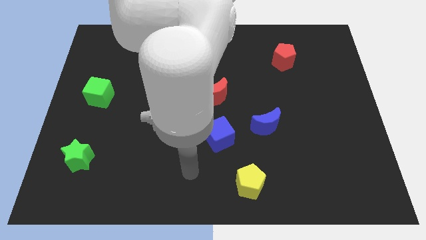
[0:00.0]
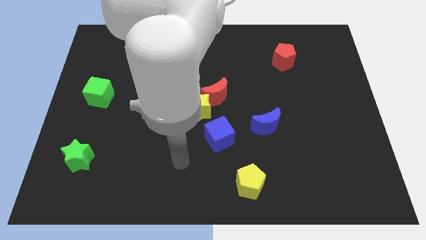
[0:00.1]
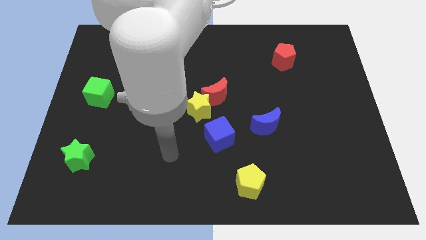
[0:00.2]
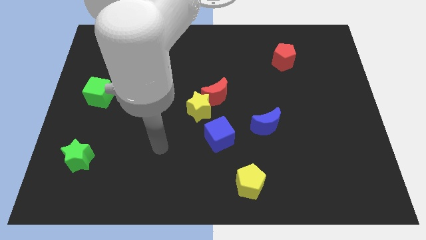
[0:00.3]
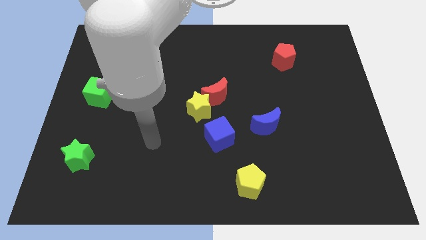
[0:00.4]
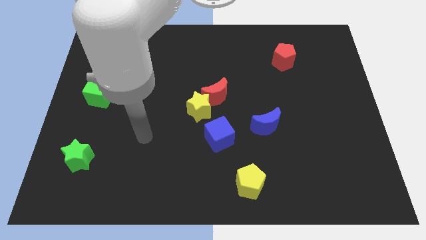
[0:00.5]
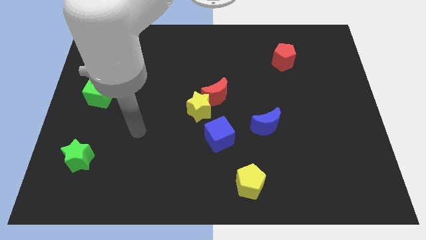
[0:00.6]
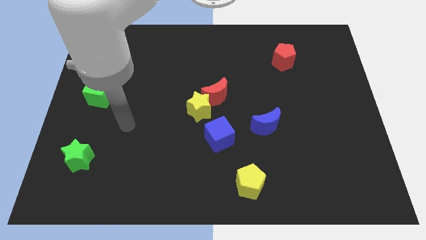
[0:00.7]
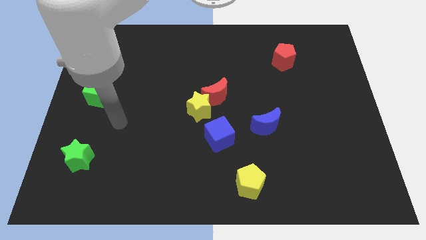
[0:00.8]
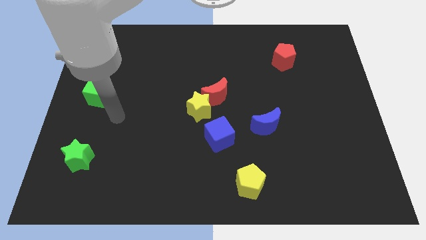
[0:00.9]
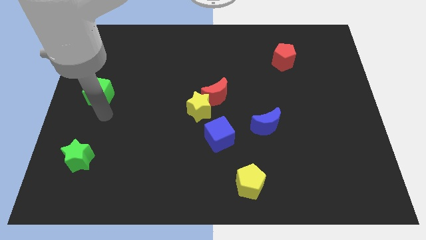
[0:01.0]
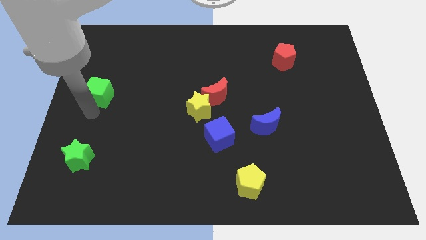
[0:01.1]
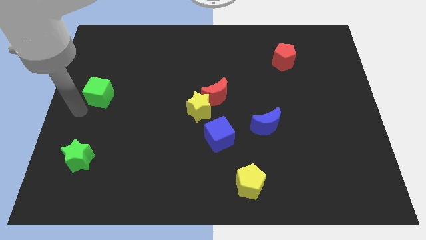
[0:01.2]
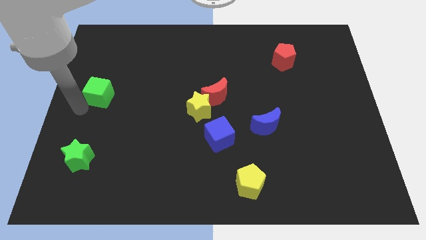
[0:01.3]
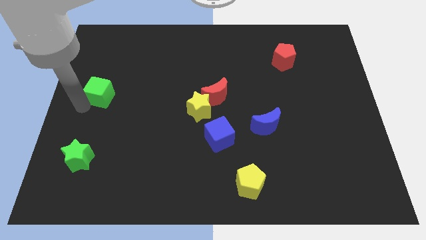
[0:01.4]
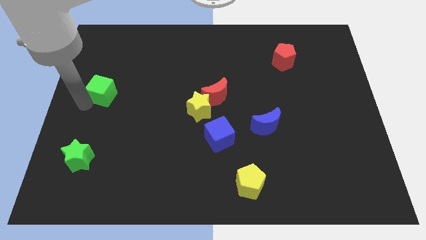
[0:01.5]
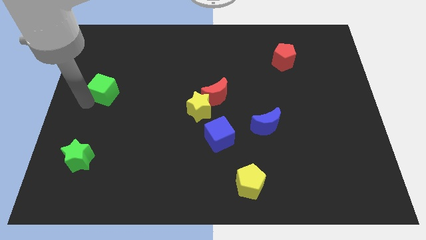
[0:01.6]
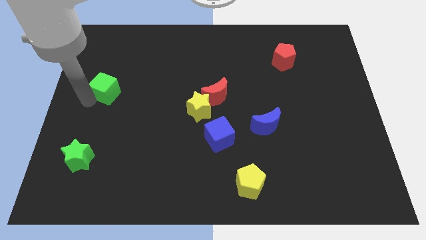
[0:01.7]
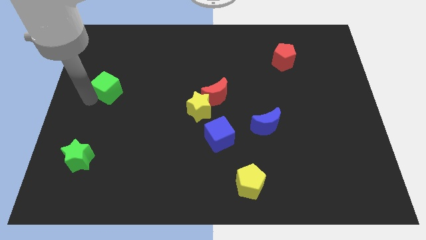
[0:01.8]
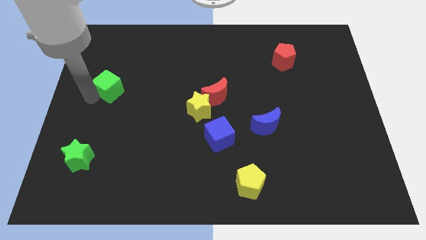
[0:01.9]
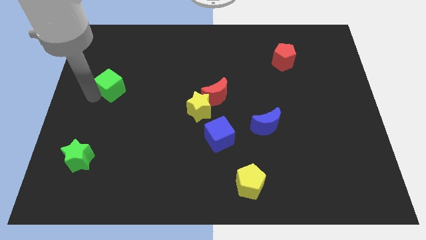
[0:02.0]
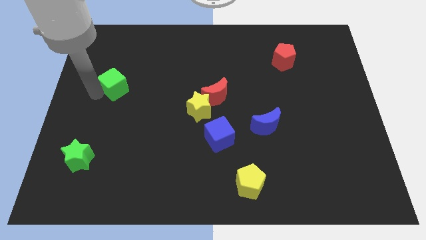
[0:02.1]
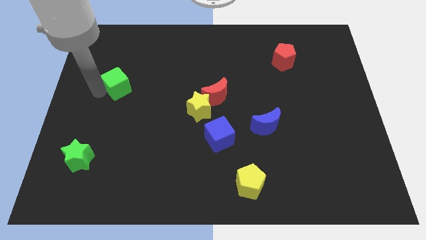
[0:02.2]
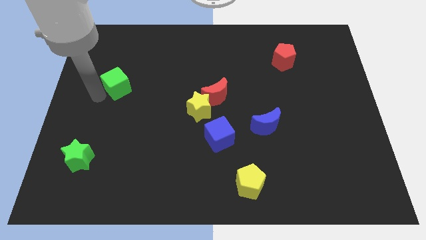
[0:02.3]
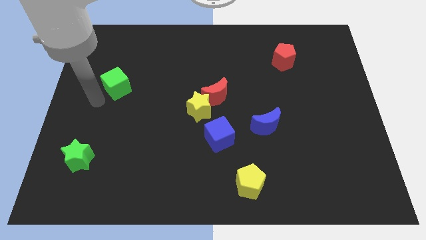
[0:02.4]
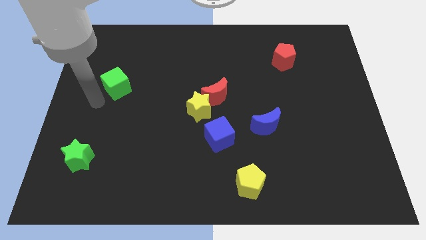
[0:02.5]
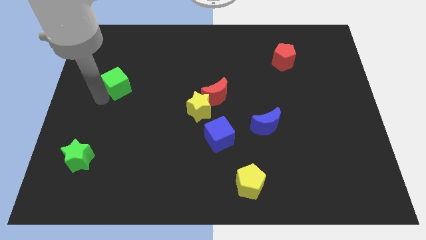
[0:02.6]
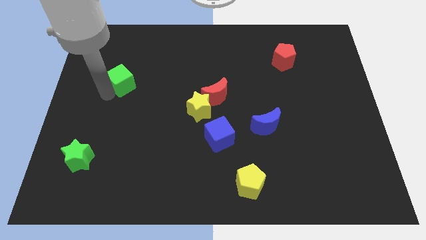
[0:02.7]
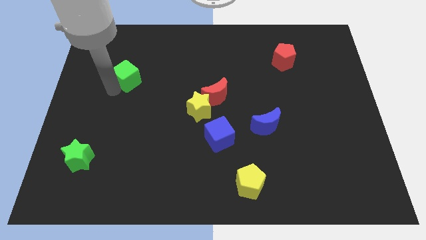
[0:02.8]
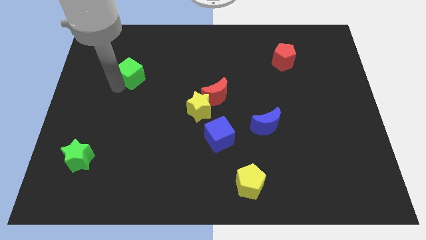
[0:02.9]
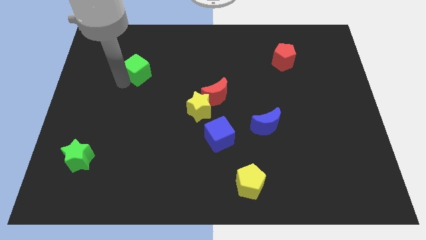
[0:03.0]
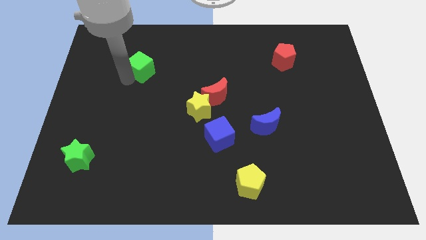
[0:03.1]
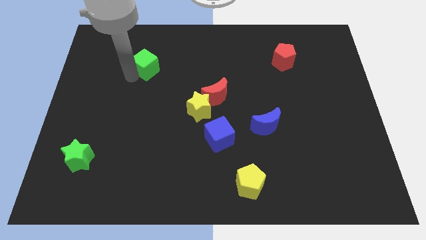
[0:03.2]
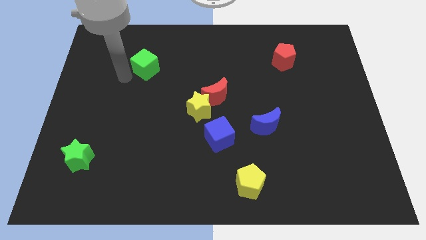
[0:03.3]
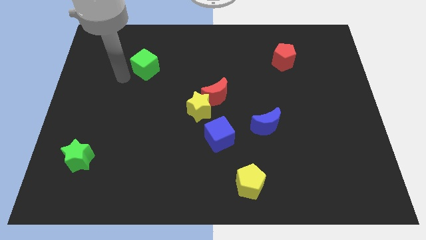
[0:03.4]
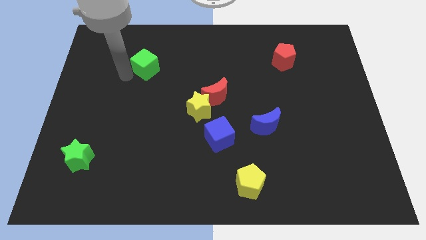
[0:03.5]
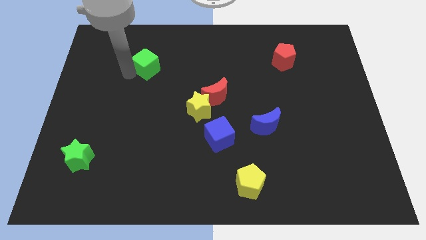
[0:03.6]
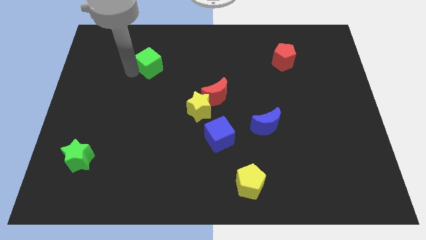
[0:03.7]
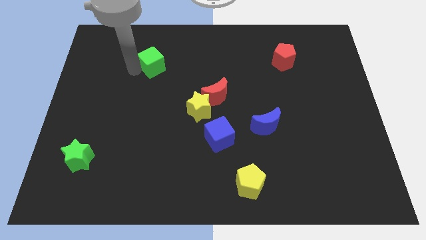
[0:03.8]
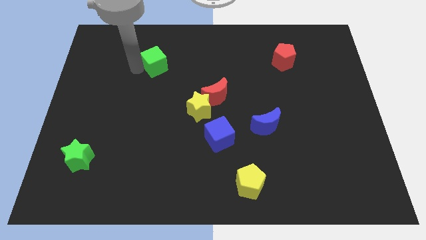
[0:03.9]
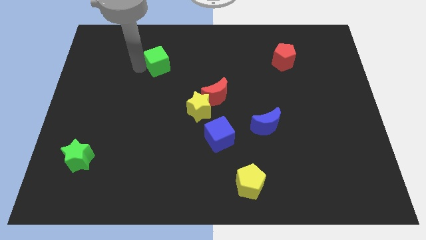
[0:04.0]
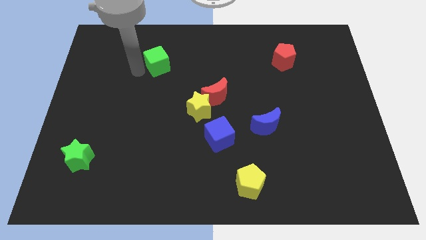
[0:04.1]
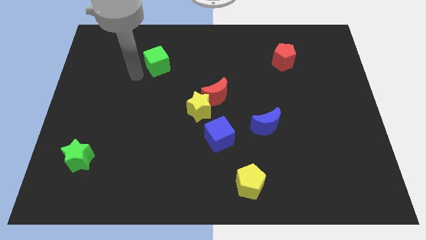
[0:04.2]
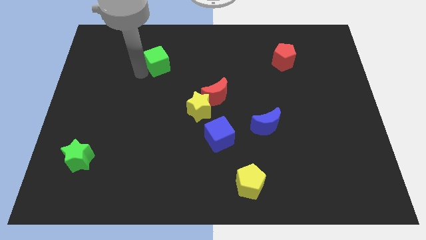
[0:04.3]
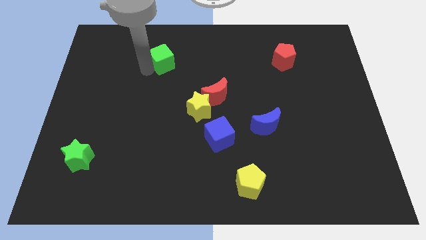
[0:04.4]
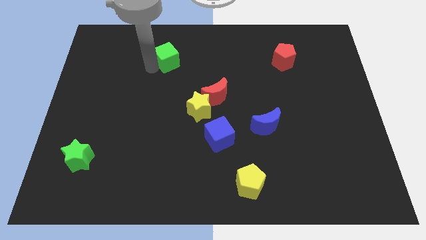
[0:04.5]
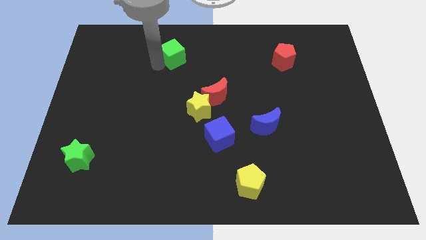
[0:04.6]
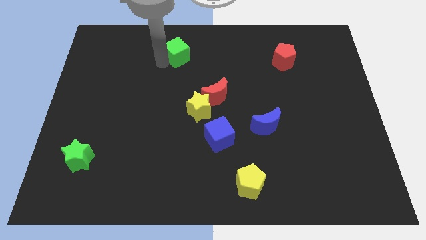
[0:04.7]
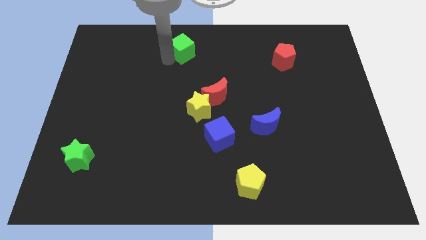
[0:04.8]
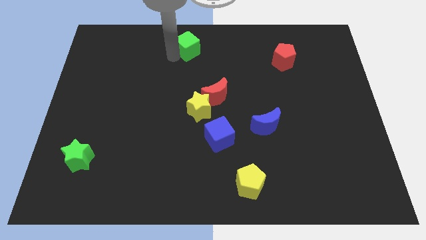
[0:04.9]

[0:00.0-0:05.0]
put the green cube to the top side

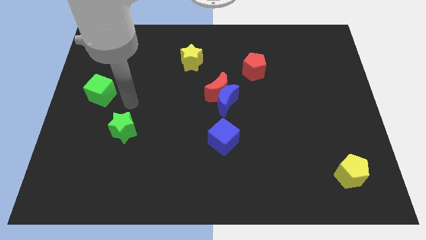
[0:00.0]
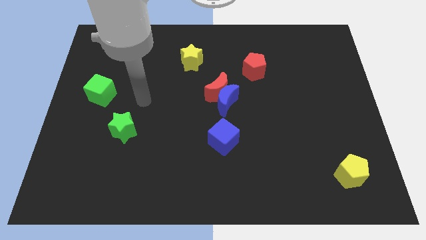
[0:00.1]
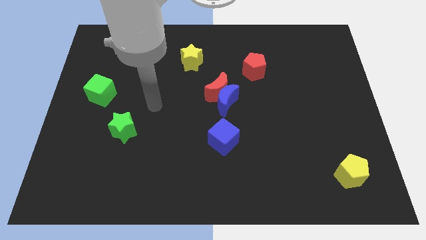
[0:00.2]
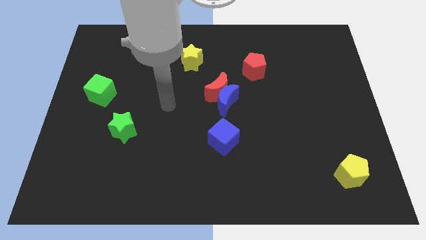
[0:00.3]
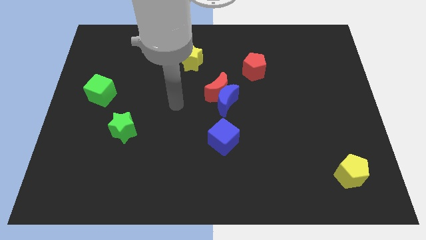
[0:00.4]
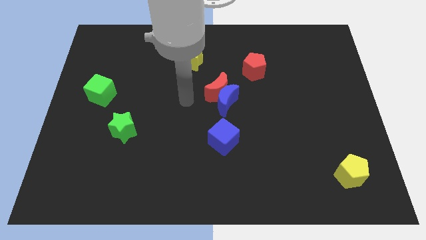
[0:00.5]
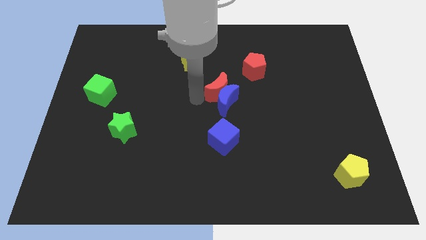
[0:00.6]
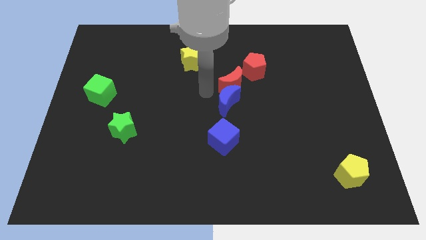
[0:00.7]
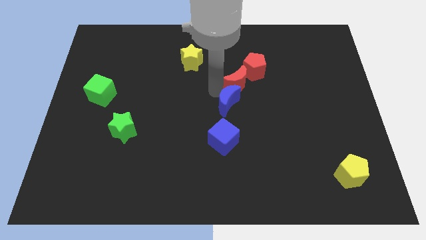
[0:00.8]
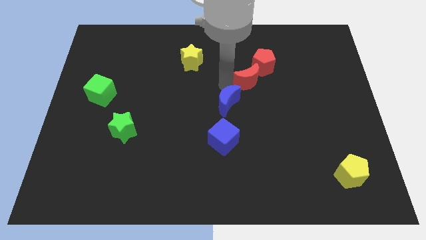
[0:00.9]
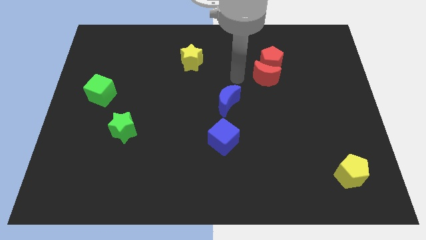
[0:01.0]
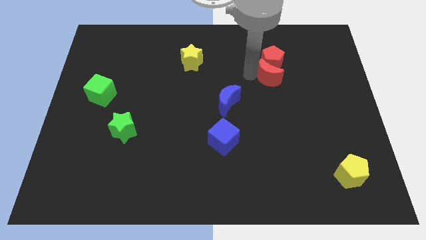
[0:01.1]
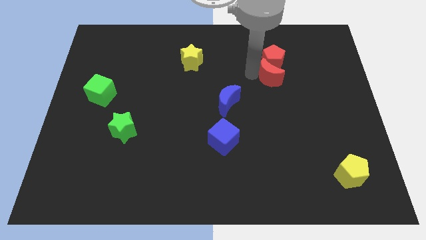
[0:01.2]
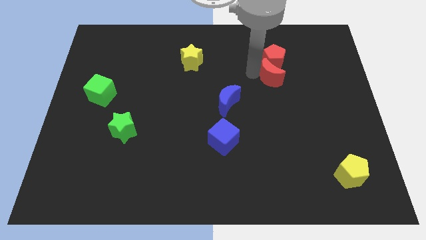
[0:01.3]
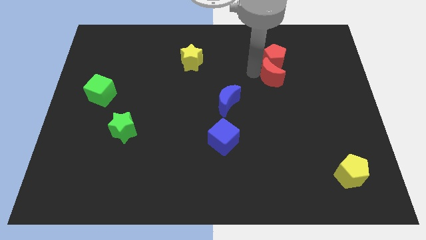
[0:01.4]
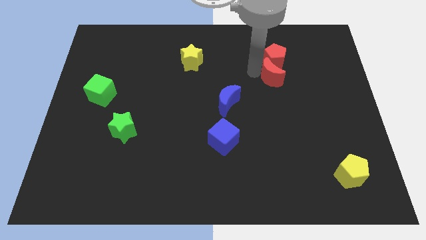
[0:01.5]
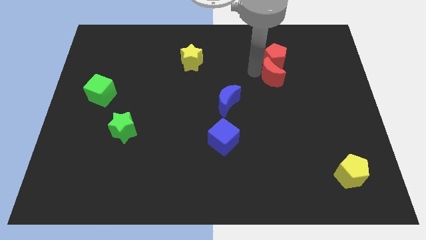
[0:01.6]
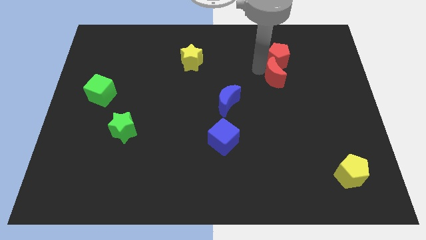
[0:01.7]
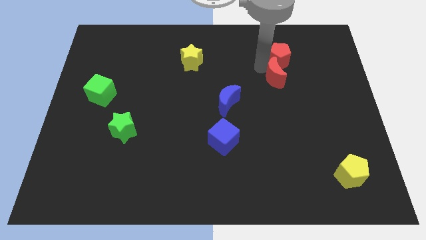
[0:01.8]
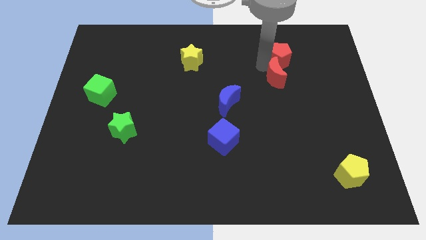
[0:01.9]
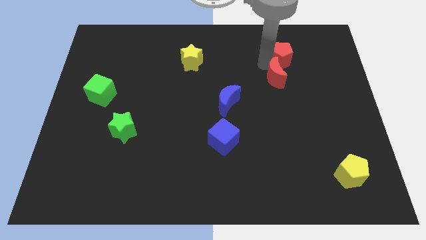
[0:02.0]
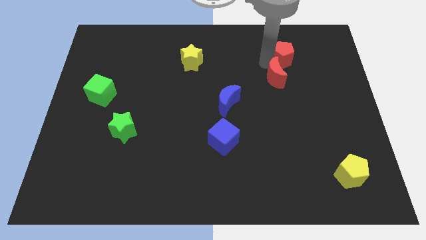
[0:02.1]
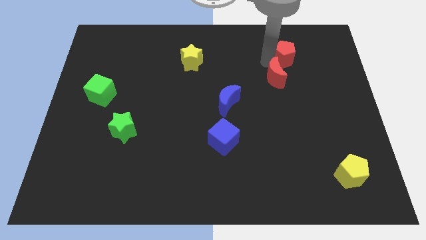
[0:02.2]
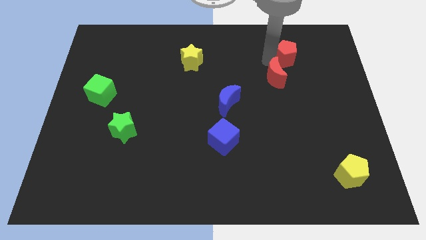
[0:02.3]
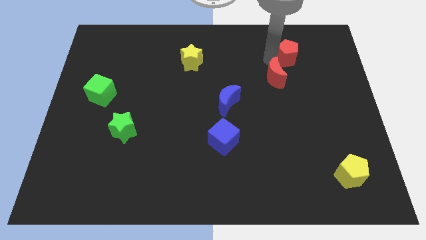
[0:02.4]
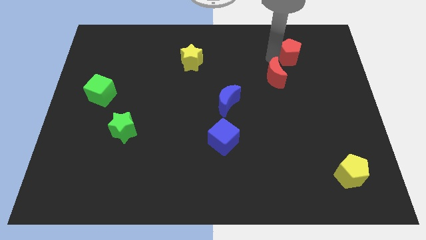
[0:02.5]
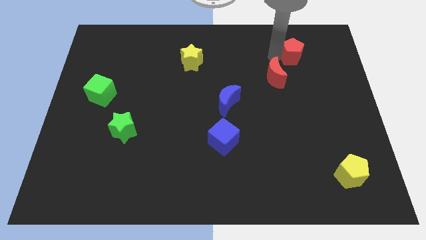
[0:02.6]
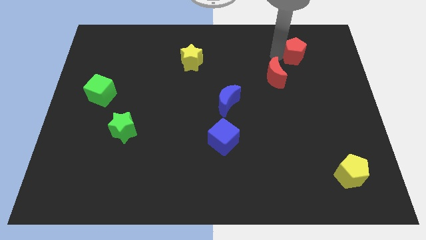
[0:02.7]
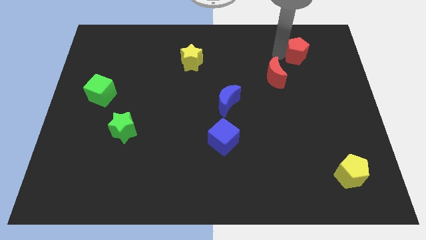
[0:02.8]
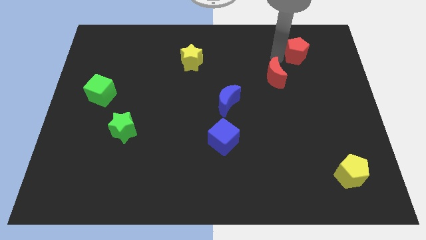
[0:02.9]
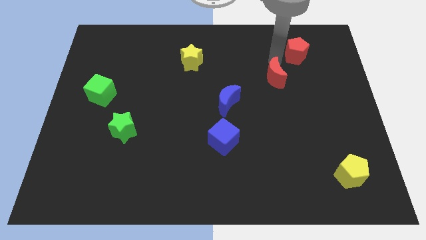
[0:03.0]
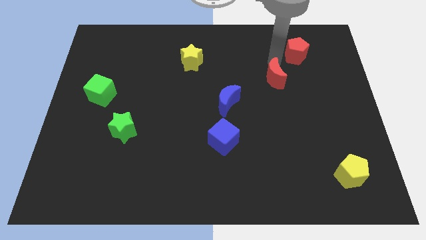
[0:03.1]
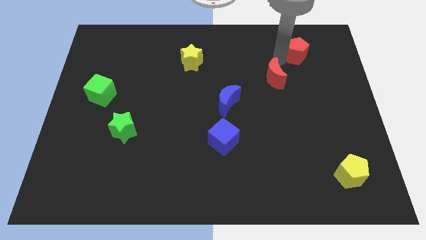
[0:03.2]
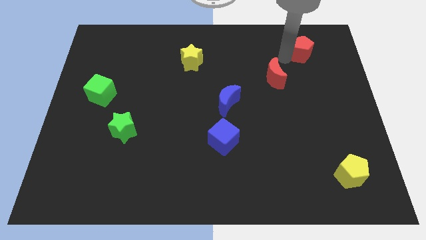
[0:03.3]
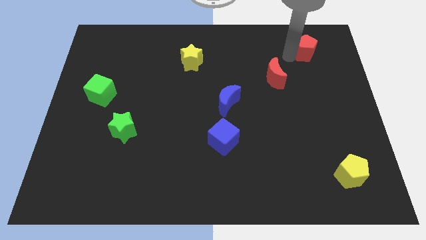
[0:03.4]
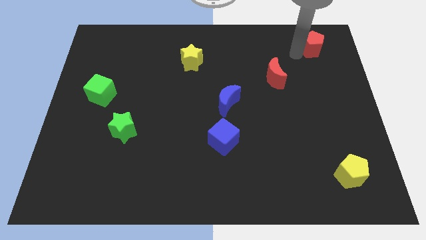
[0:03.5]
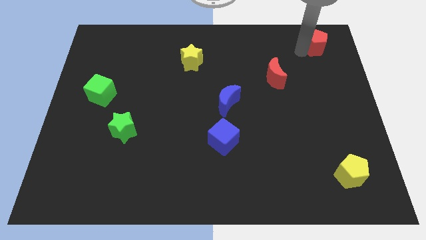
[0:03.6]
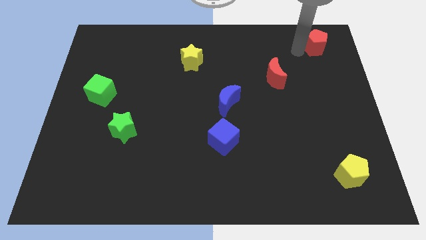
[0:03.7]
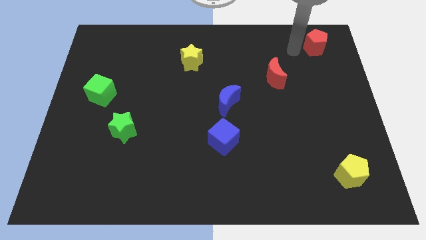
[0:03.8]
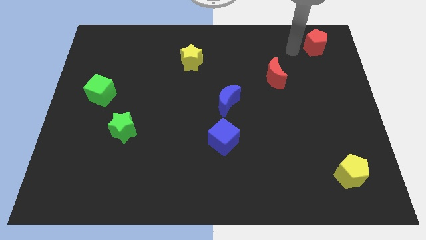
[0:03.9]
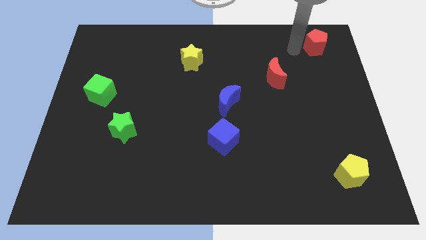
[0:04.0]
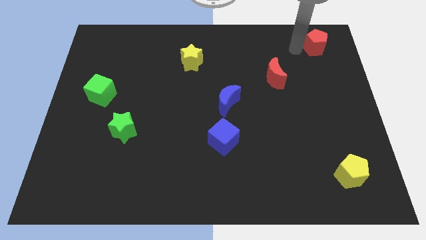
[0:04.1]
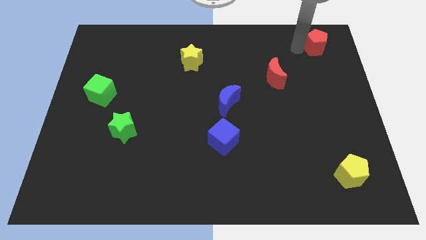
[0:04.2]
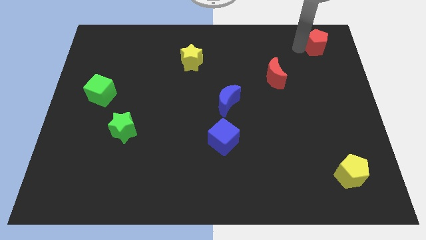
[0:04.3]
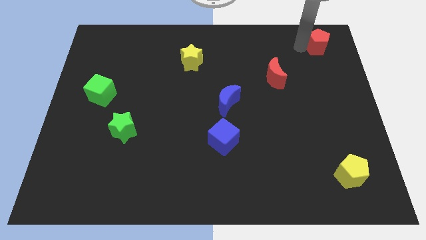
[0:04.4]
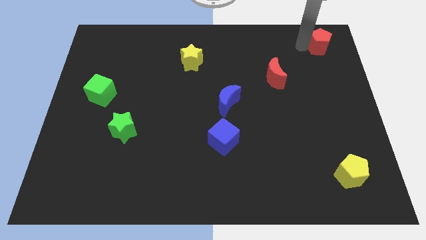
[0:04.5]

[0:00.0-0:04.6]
push the red pentagon to the top right corner
